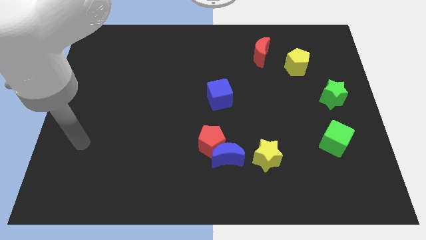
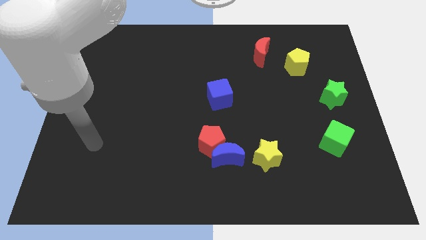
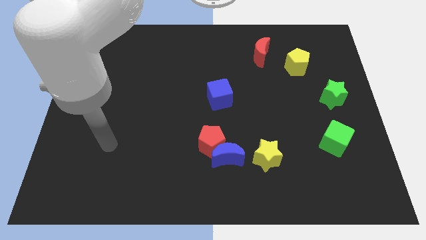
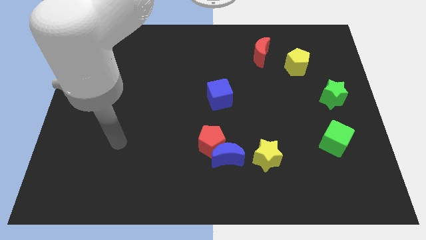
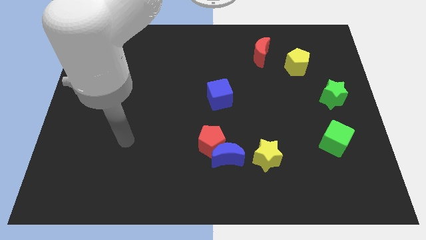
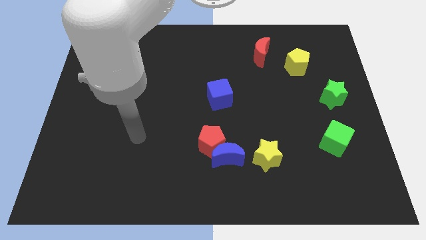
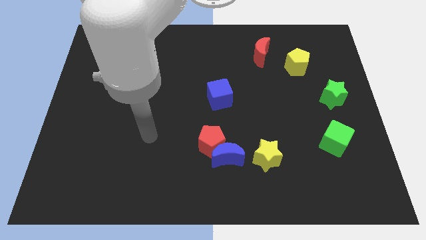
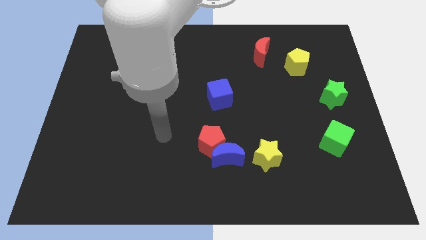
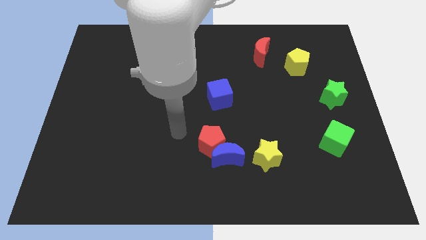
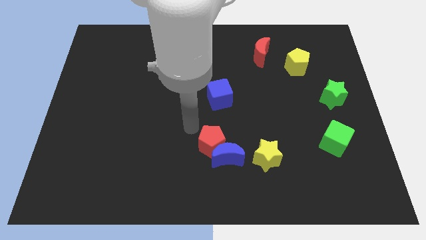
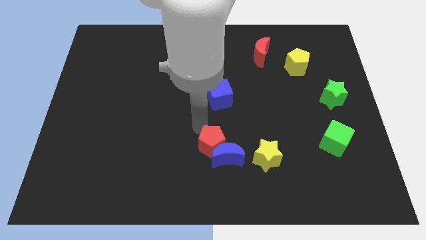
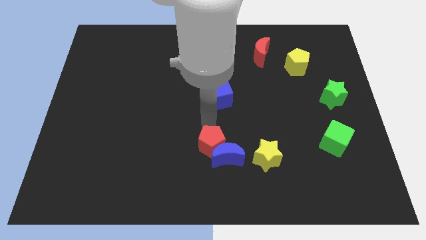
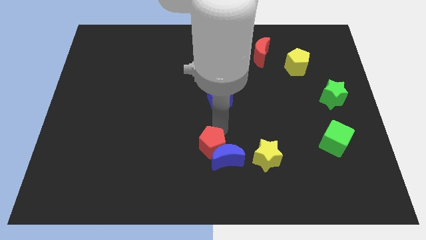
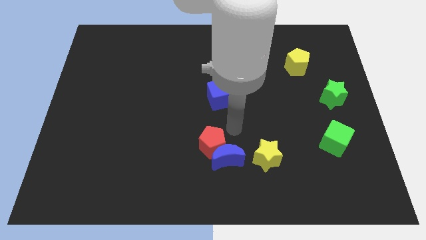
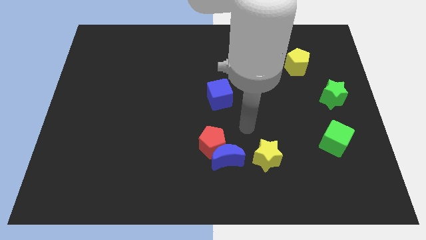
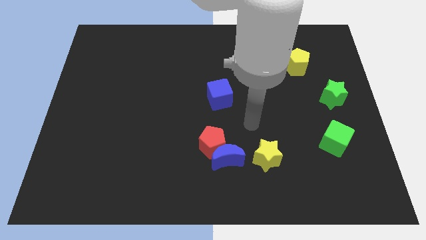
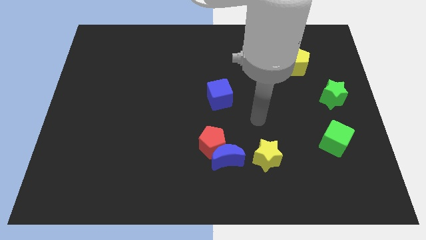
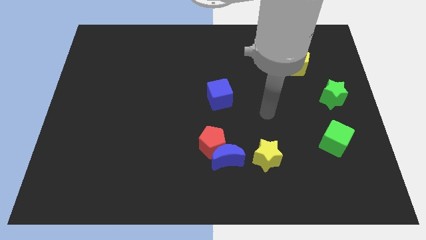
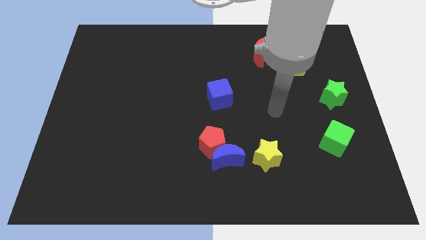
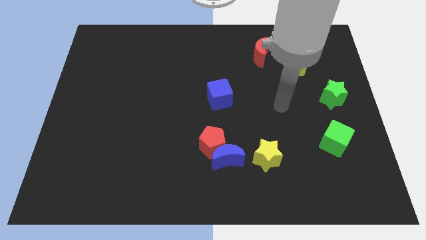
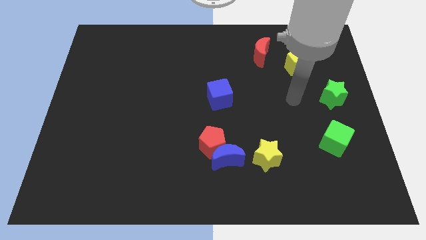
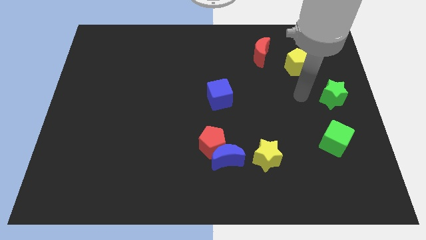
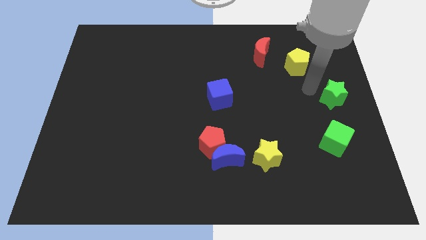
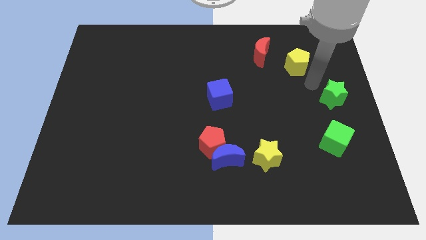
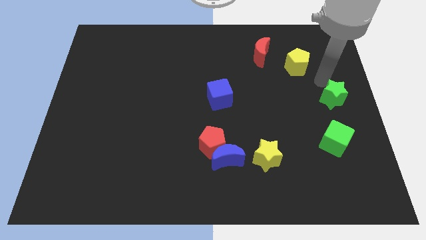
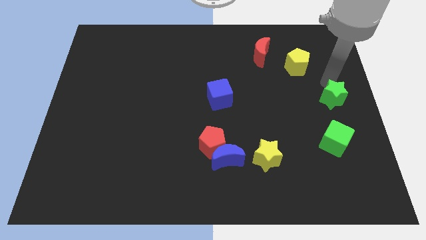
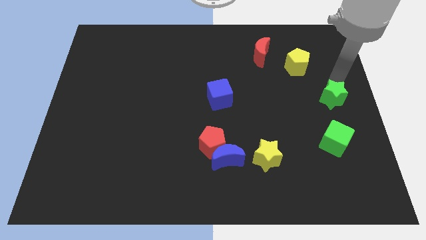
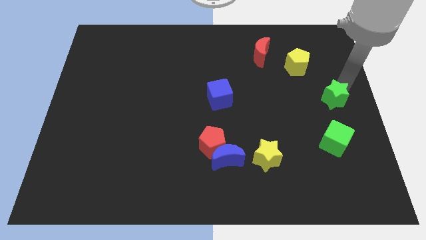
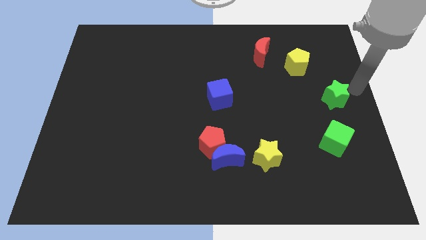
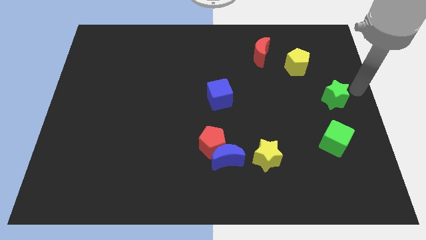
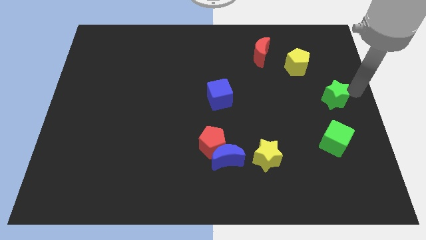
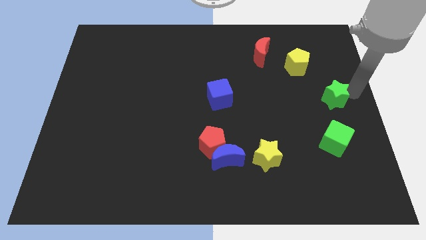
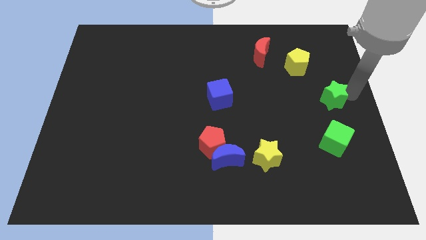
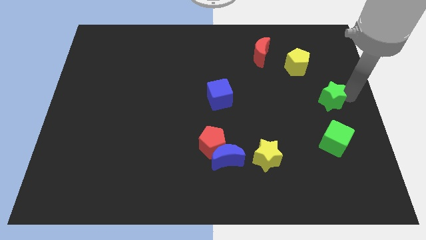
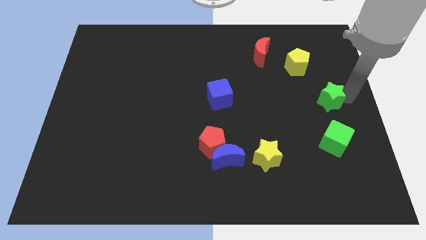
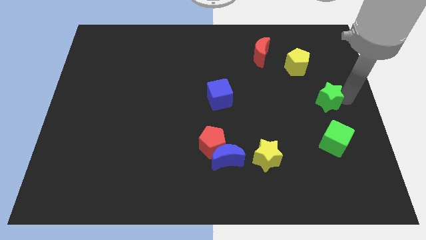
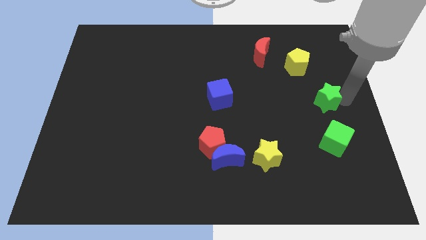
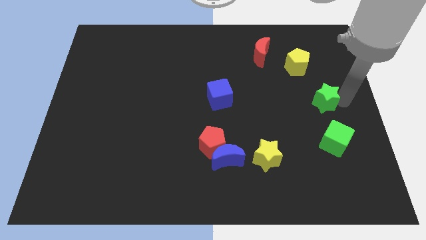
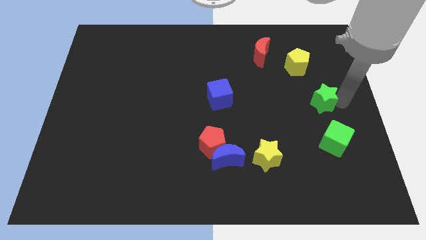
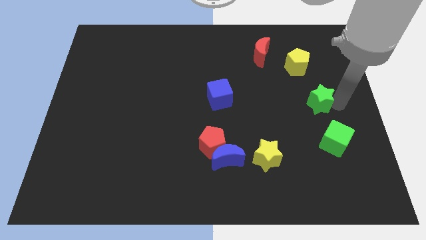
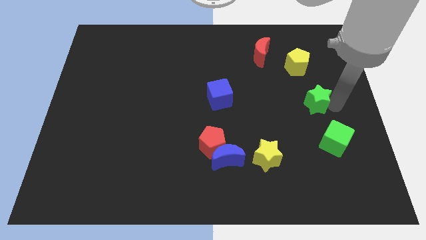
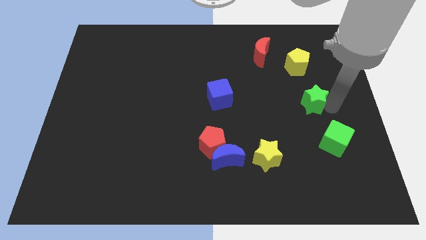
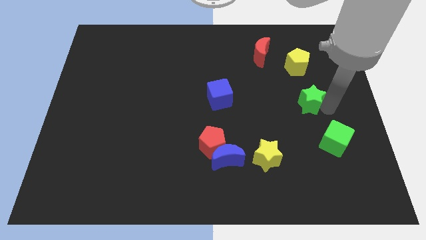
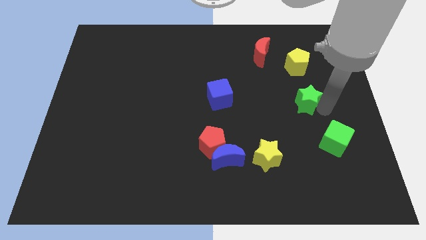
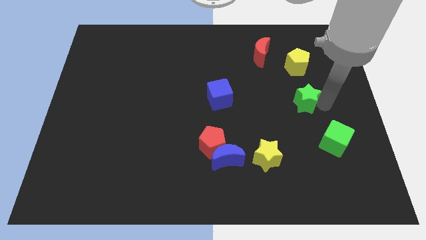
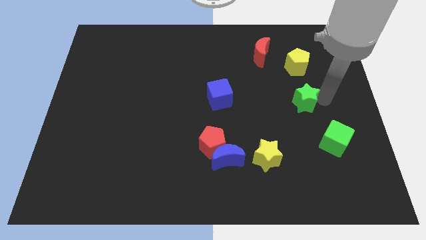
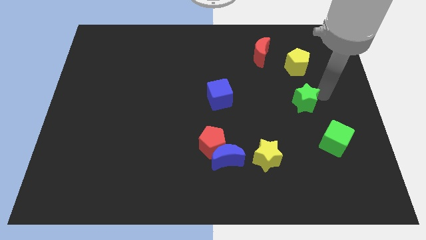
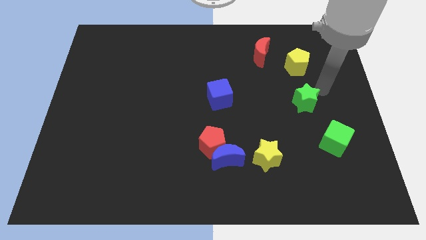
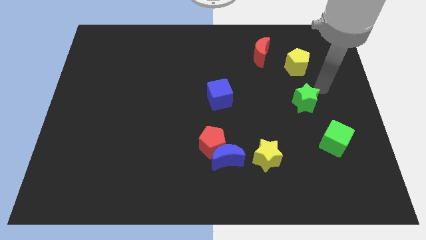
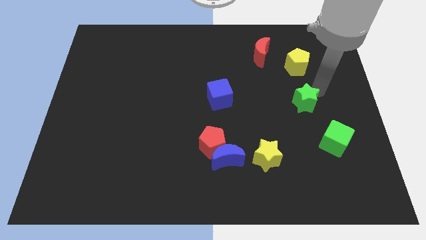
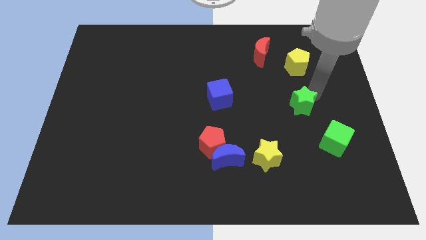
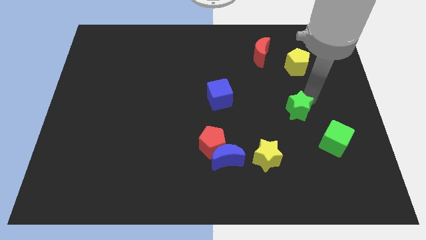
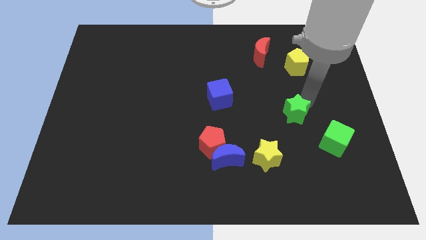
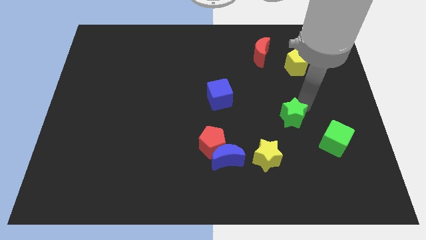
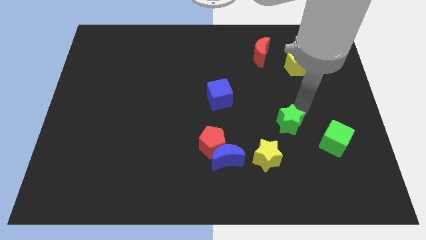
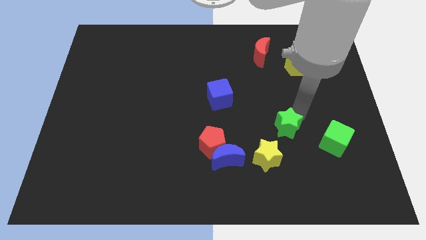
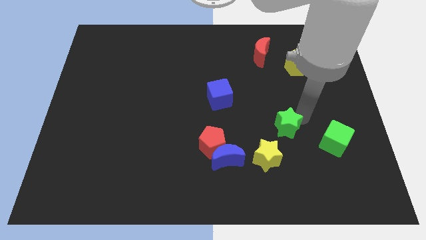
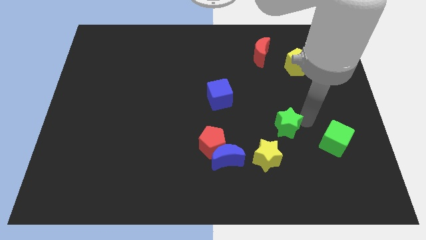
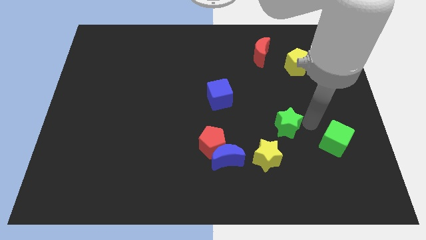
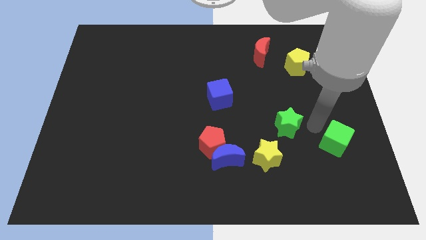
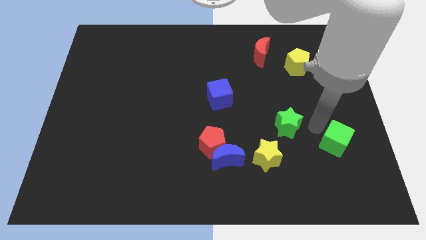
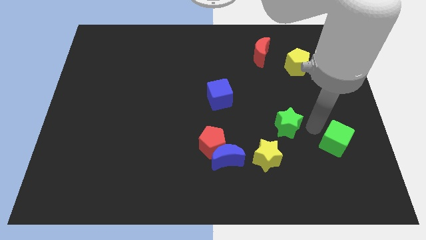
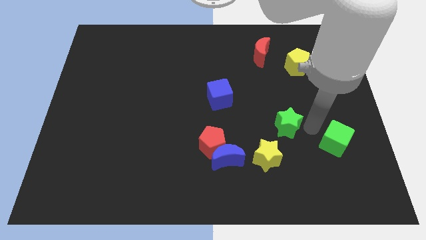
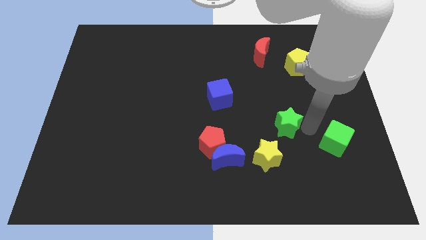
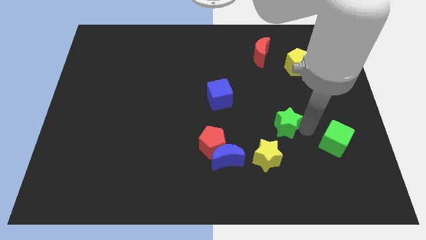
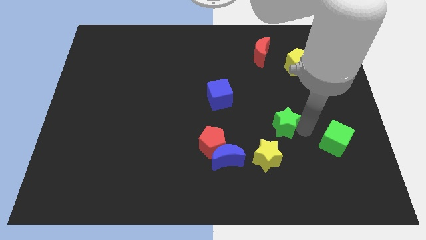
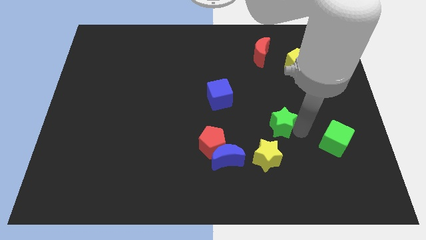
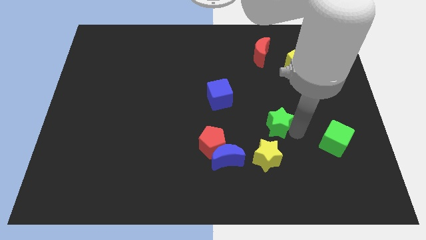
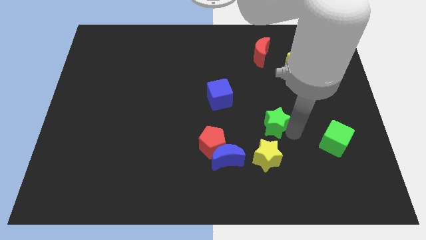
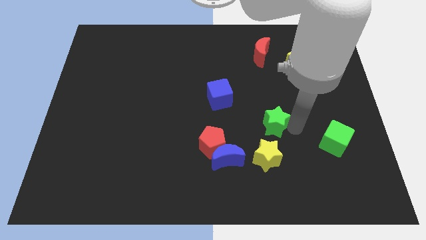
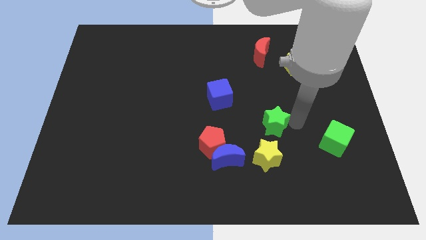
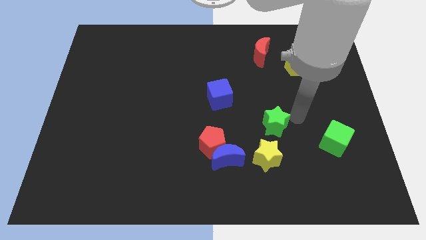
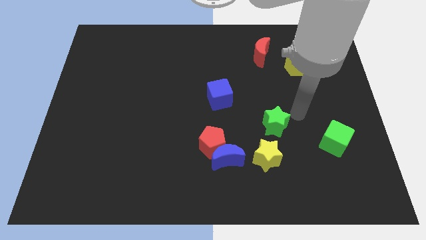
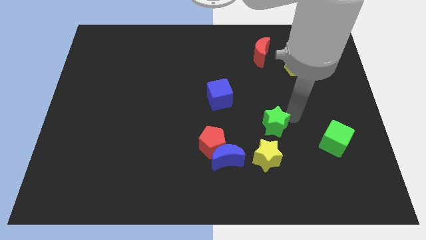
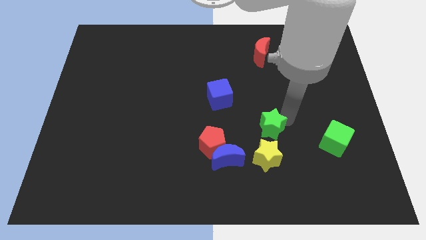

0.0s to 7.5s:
move the green star to the top right of the blue moon
